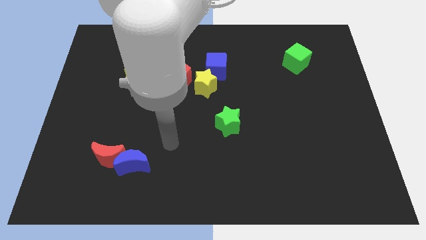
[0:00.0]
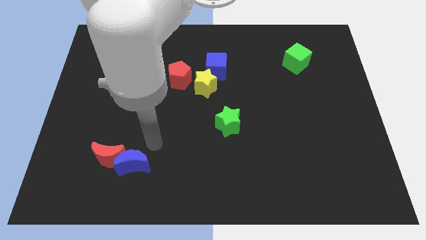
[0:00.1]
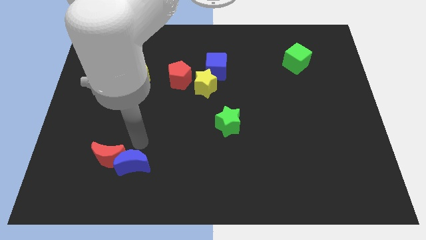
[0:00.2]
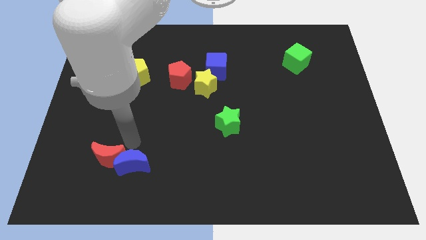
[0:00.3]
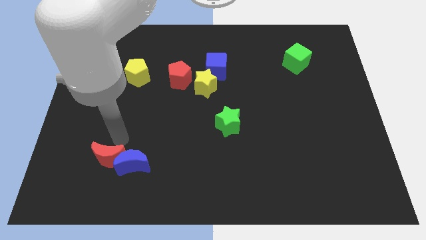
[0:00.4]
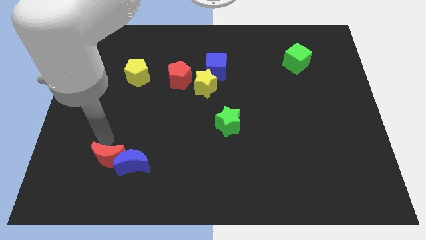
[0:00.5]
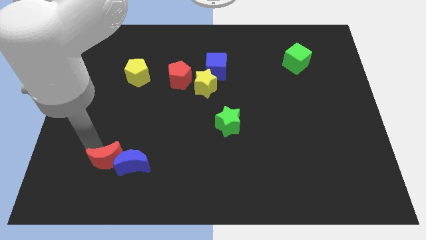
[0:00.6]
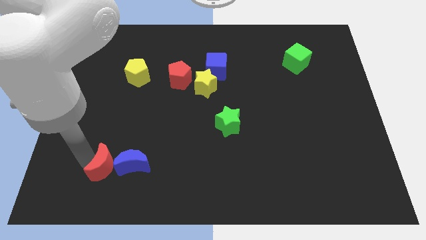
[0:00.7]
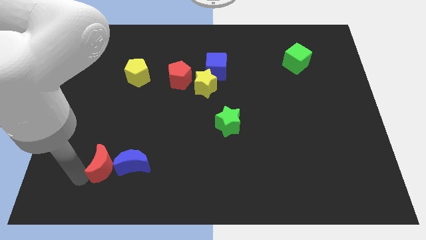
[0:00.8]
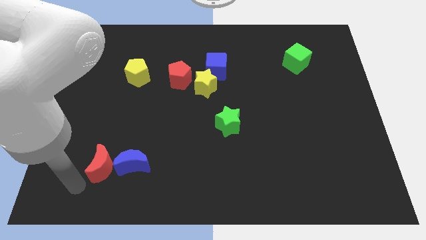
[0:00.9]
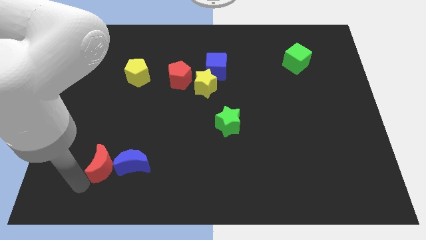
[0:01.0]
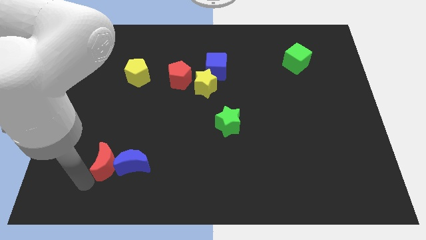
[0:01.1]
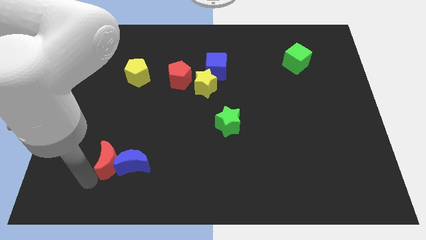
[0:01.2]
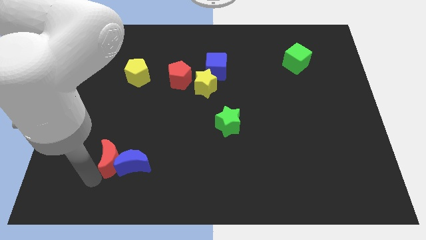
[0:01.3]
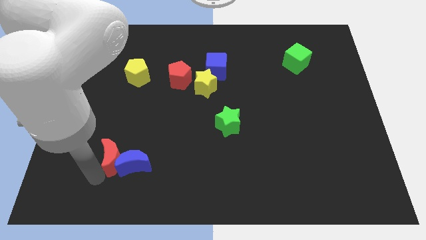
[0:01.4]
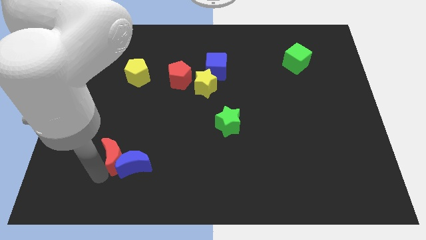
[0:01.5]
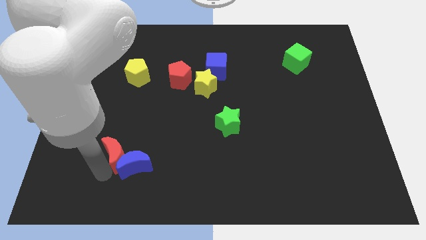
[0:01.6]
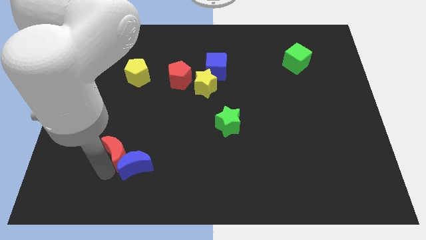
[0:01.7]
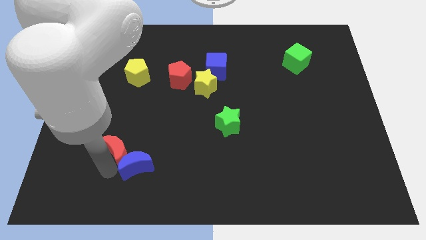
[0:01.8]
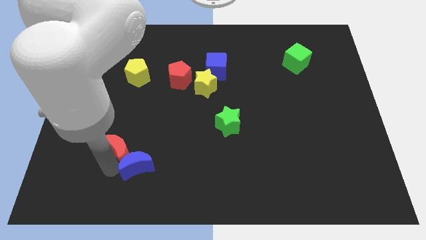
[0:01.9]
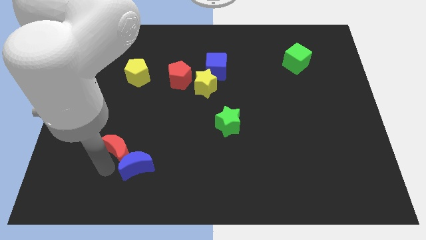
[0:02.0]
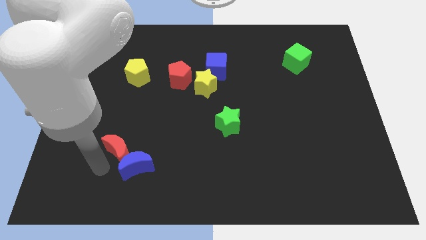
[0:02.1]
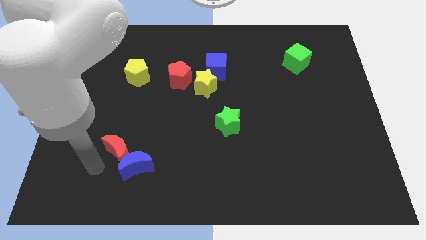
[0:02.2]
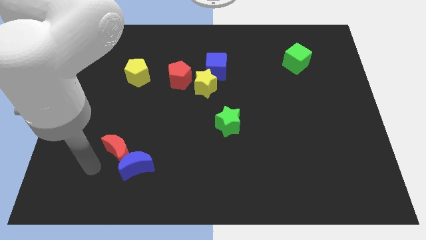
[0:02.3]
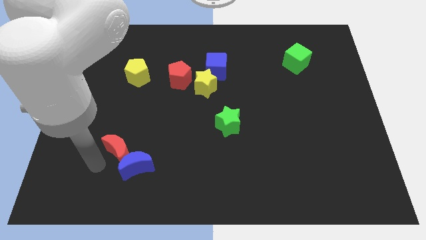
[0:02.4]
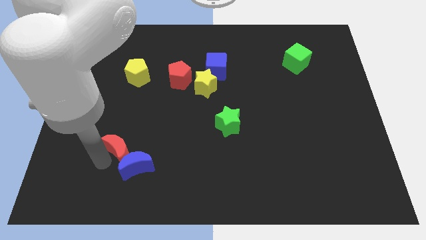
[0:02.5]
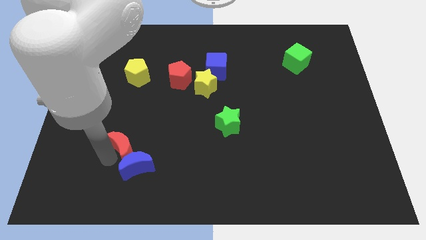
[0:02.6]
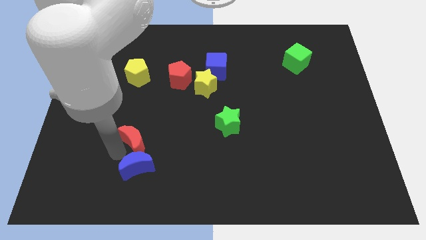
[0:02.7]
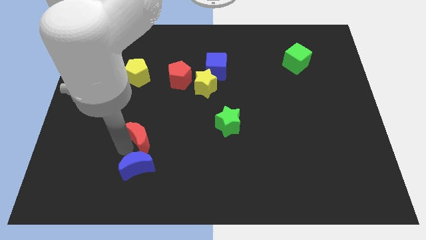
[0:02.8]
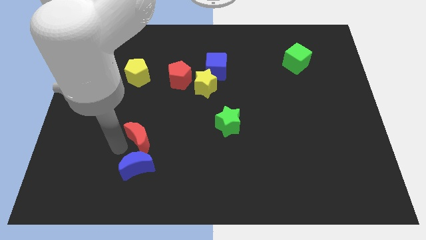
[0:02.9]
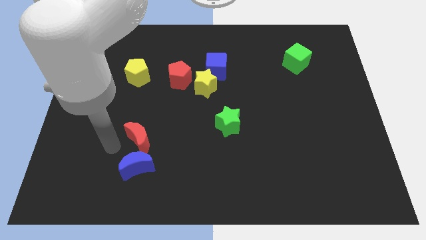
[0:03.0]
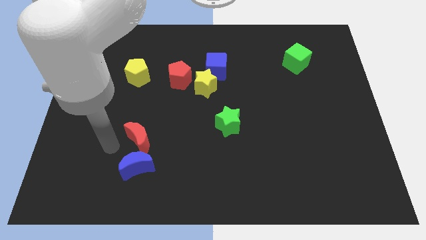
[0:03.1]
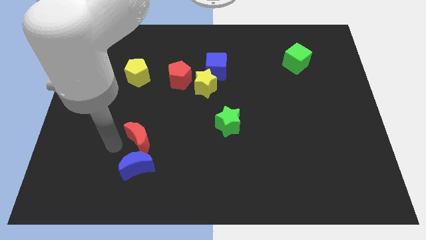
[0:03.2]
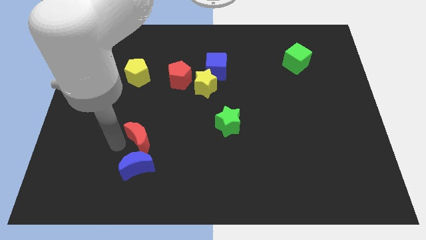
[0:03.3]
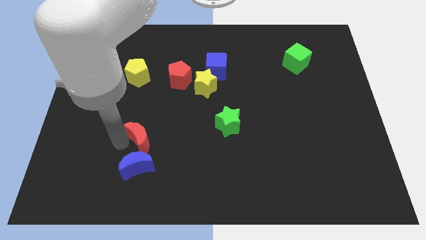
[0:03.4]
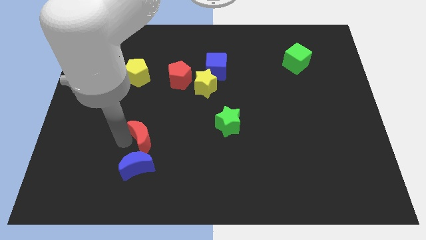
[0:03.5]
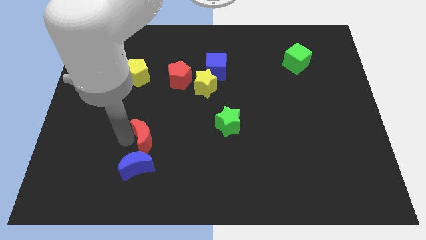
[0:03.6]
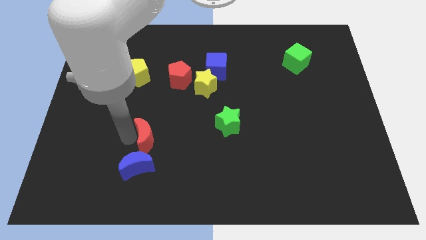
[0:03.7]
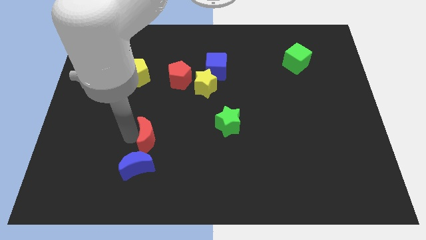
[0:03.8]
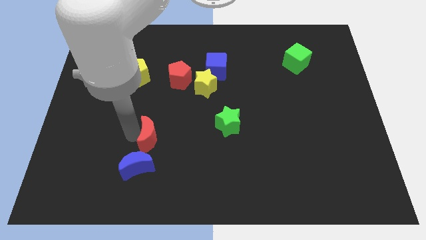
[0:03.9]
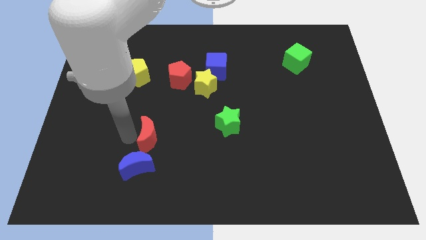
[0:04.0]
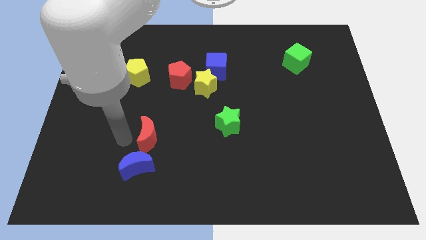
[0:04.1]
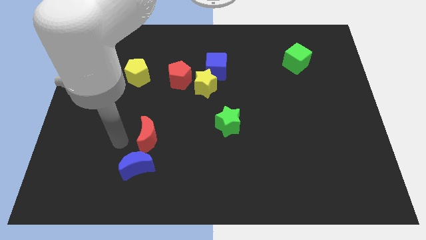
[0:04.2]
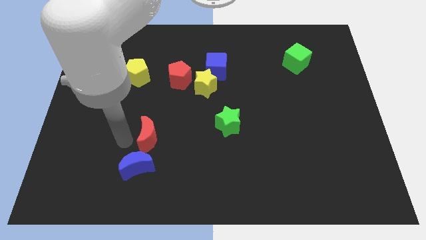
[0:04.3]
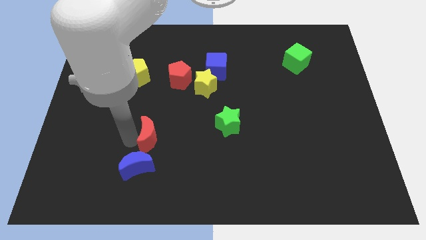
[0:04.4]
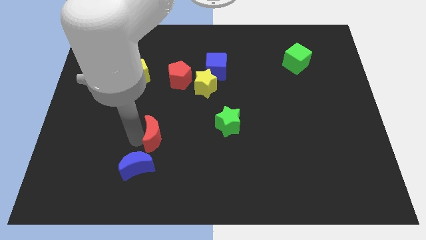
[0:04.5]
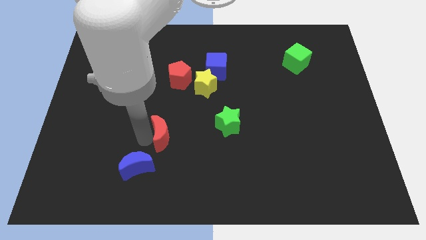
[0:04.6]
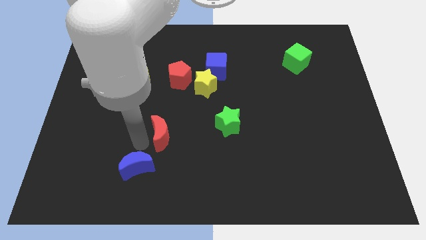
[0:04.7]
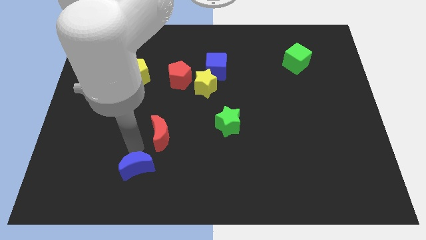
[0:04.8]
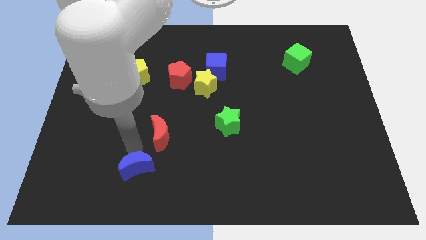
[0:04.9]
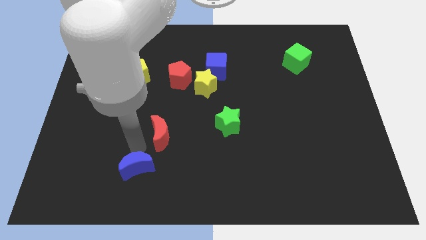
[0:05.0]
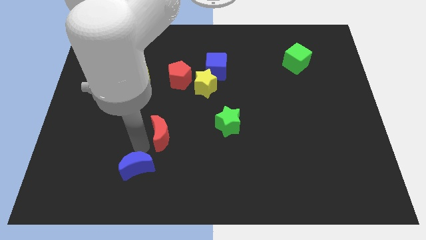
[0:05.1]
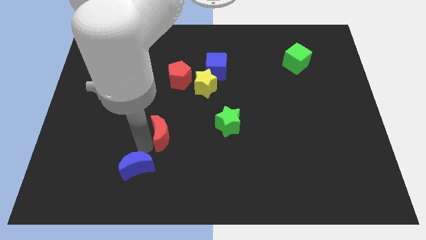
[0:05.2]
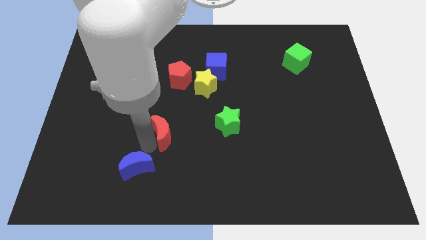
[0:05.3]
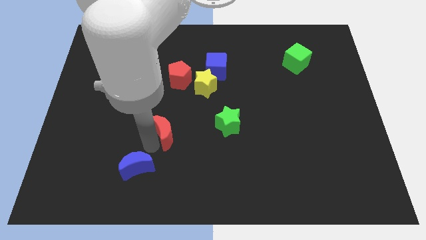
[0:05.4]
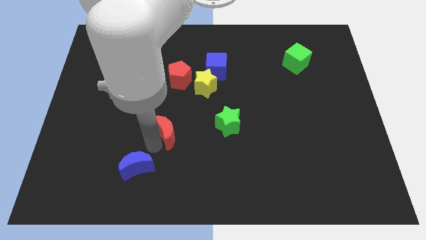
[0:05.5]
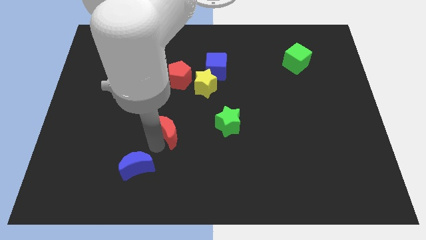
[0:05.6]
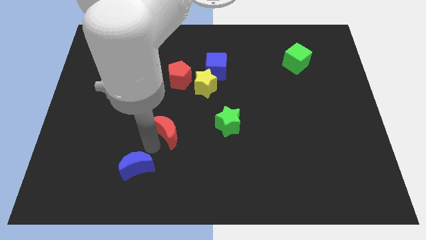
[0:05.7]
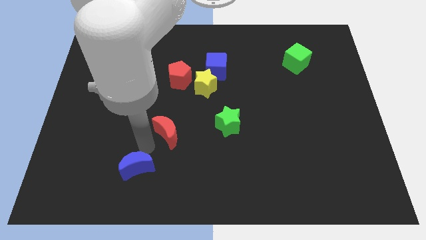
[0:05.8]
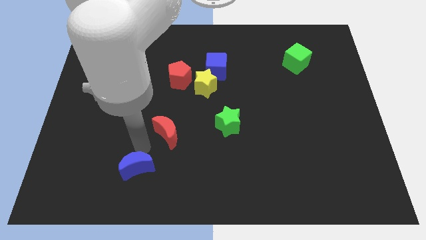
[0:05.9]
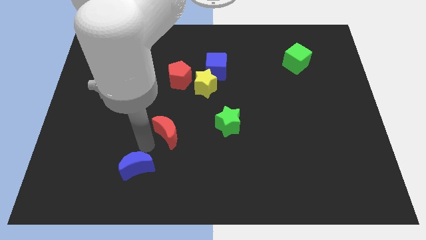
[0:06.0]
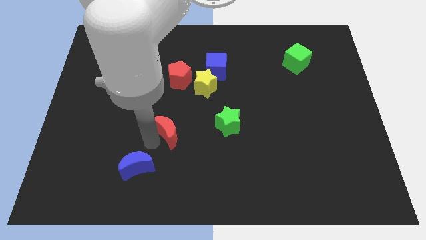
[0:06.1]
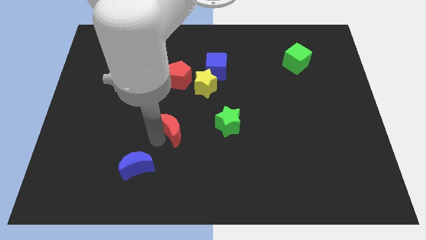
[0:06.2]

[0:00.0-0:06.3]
put the red moon to the middle

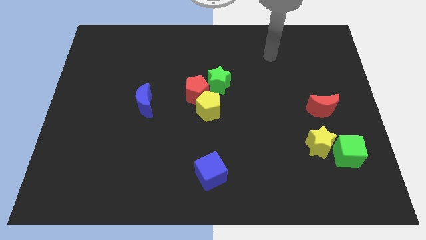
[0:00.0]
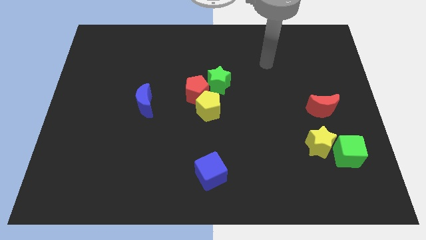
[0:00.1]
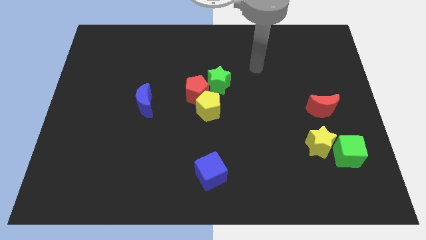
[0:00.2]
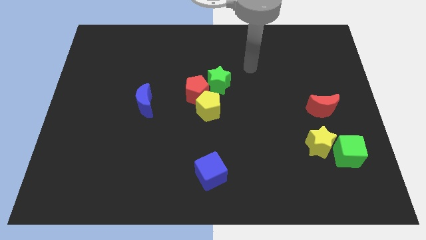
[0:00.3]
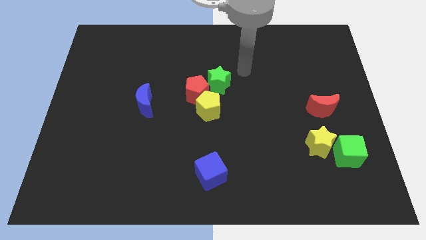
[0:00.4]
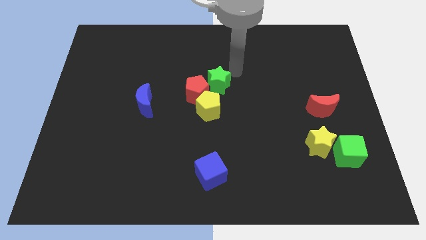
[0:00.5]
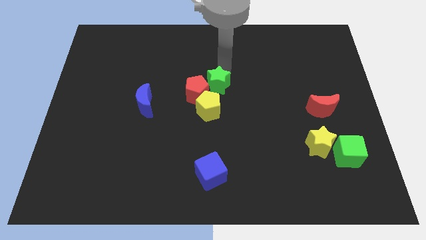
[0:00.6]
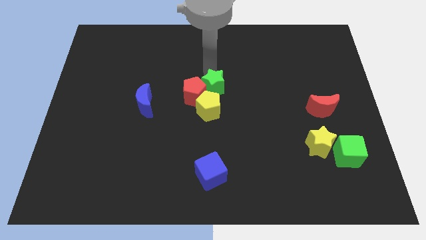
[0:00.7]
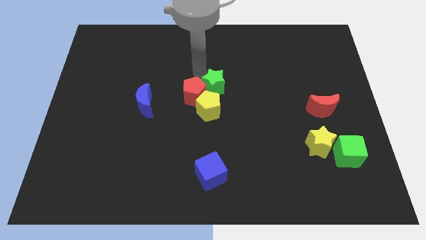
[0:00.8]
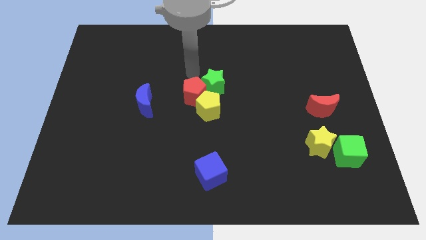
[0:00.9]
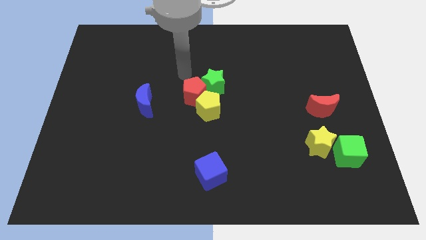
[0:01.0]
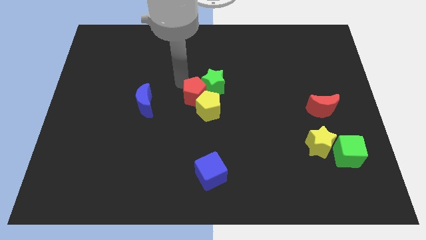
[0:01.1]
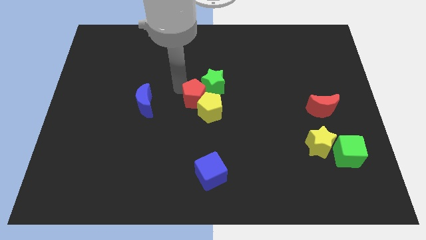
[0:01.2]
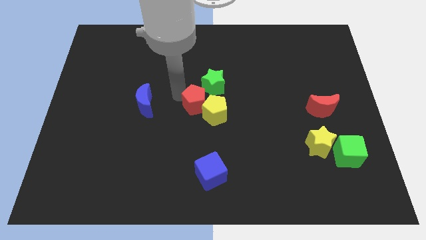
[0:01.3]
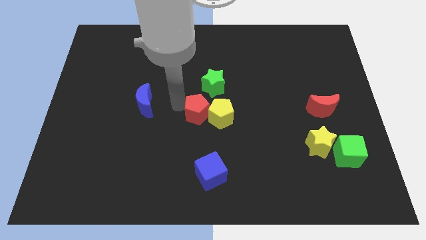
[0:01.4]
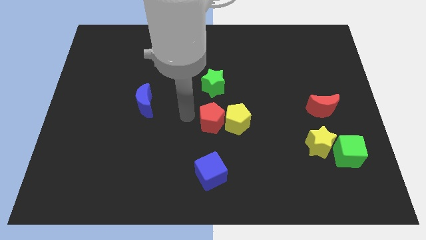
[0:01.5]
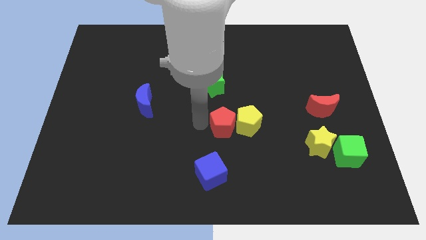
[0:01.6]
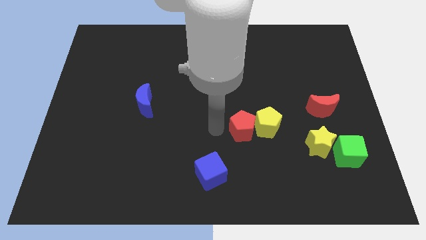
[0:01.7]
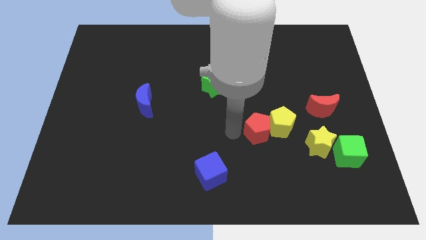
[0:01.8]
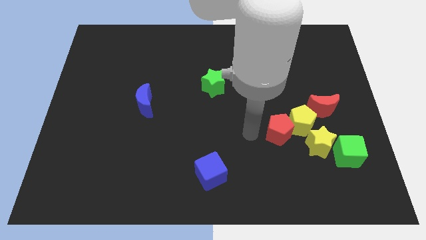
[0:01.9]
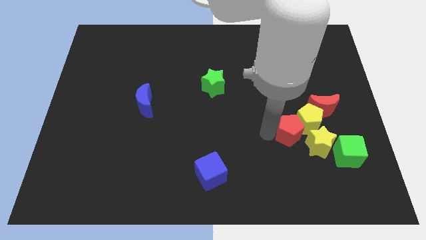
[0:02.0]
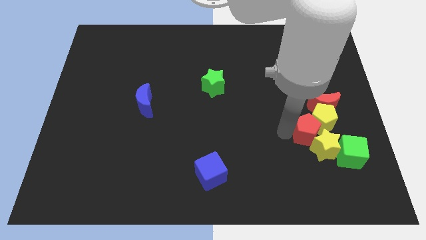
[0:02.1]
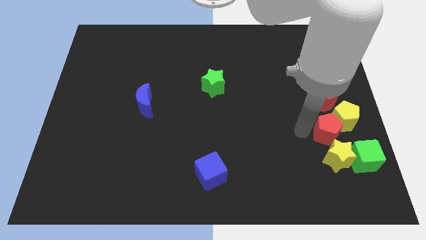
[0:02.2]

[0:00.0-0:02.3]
put the yellow pentagon to the right side of the board
